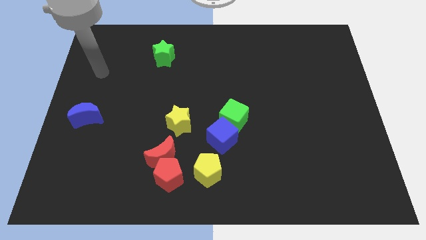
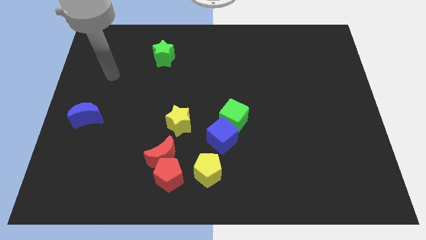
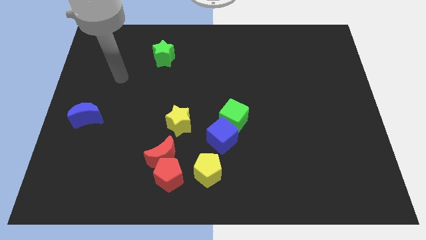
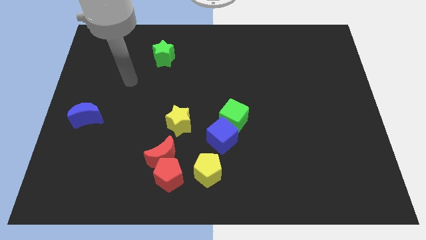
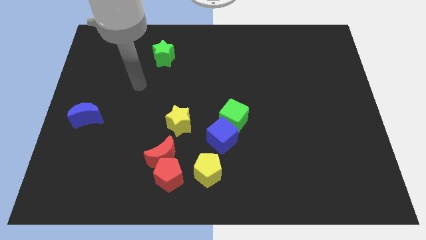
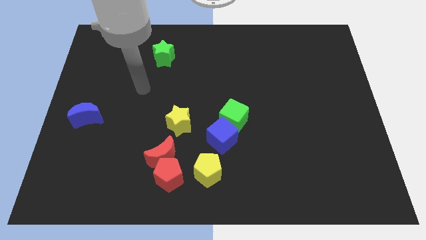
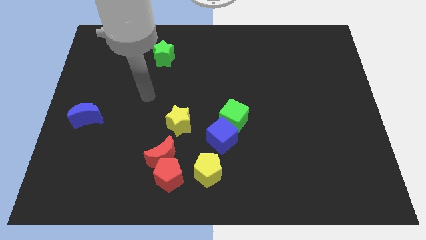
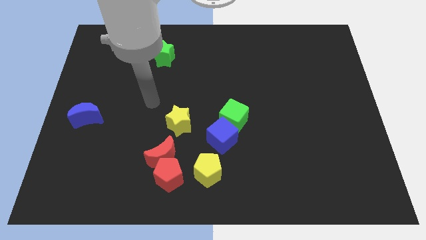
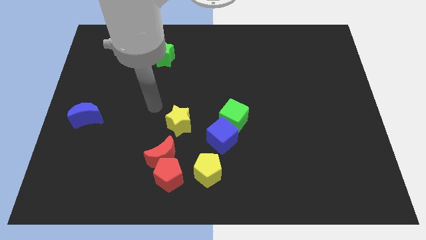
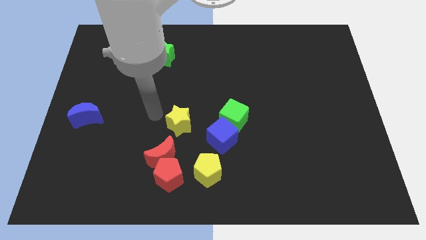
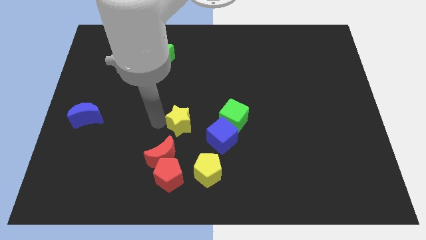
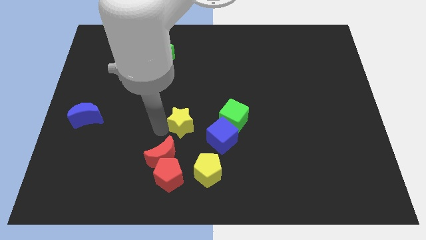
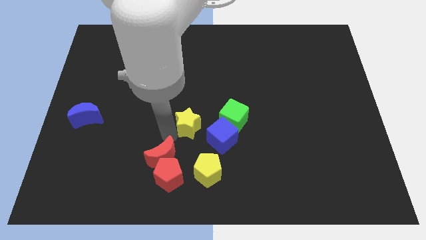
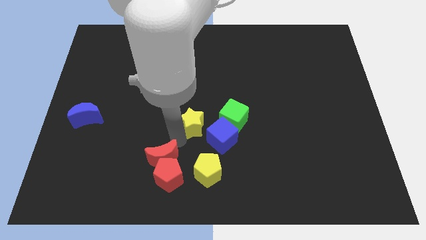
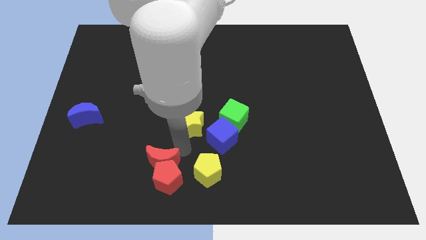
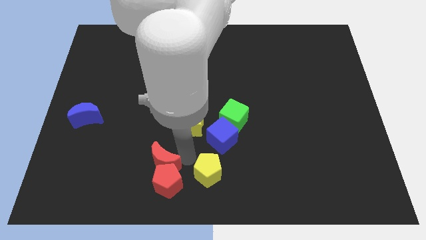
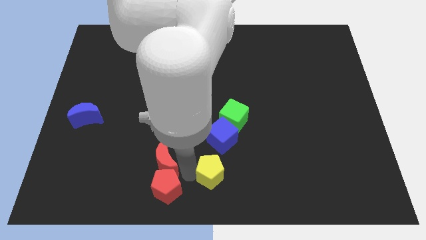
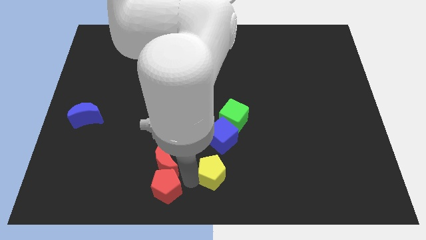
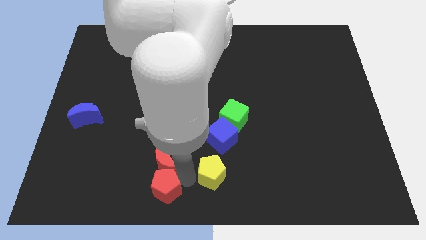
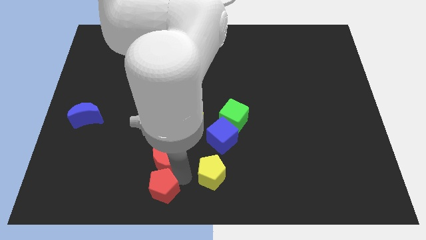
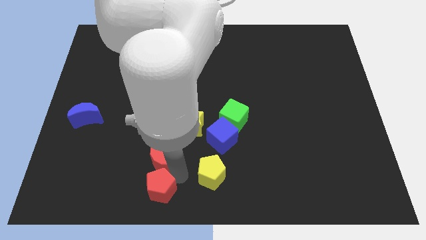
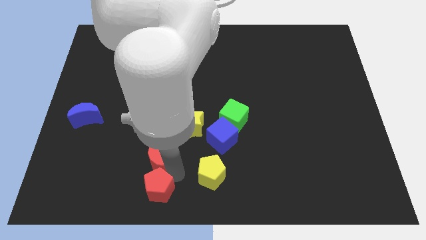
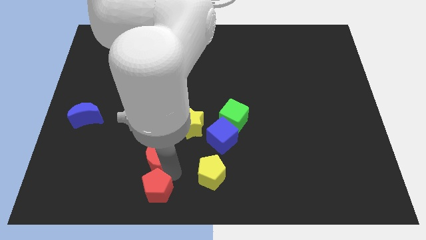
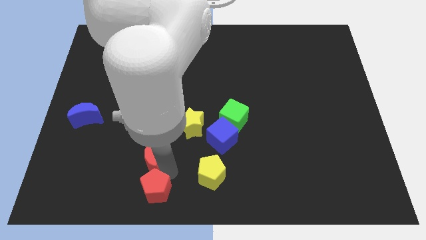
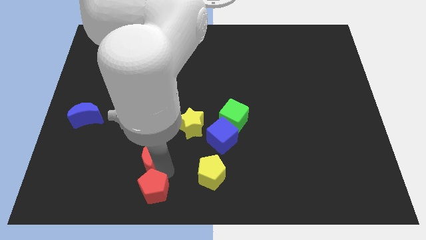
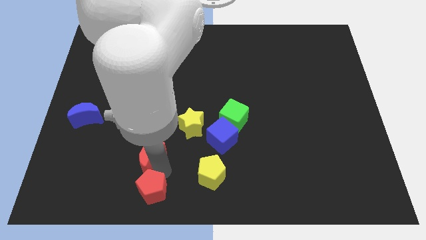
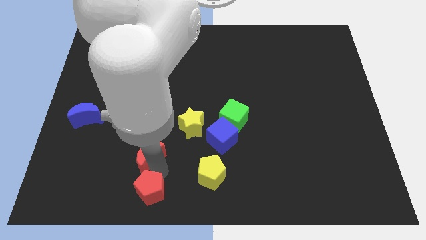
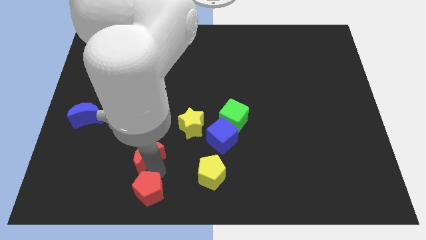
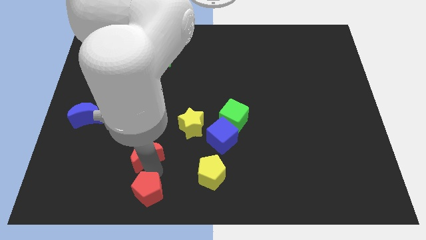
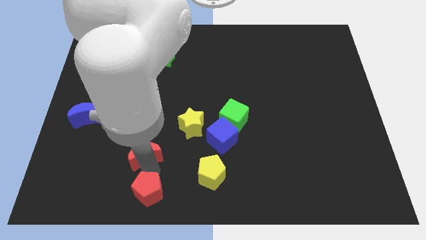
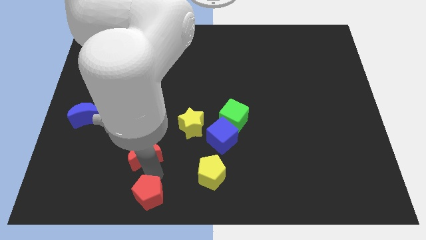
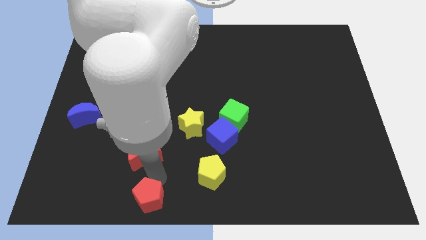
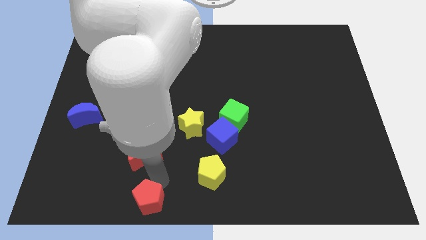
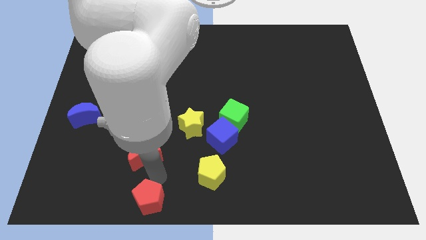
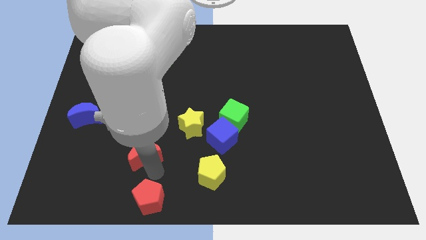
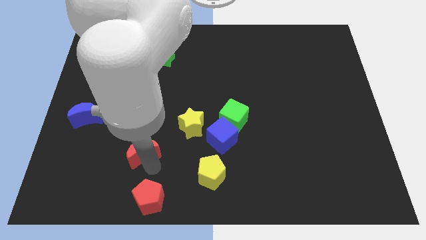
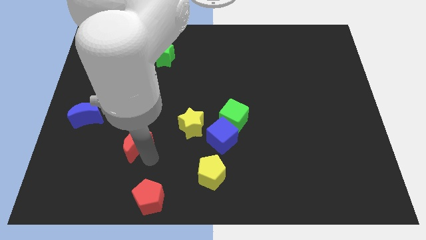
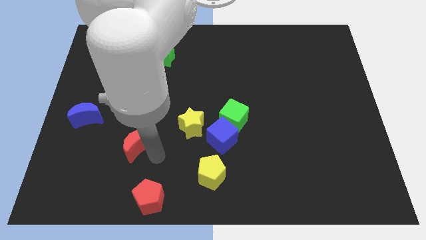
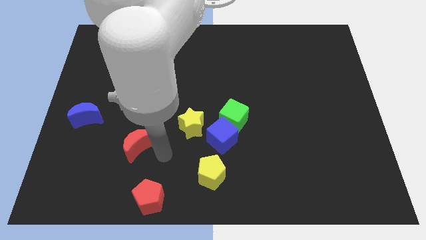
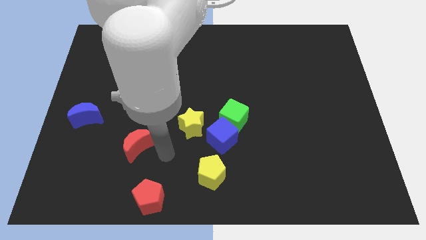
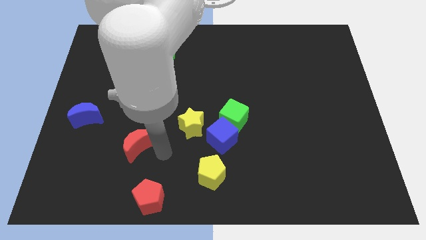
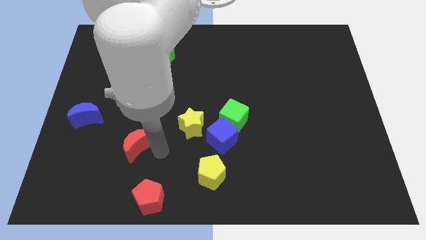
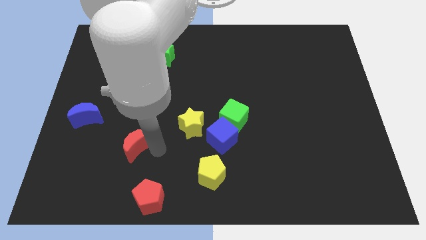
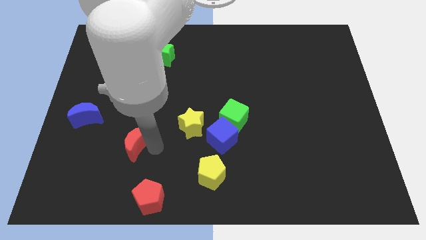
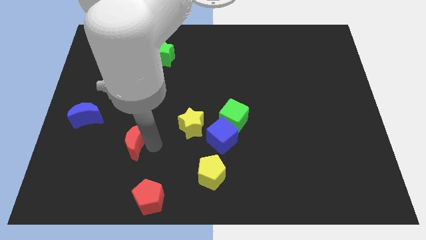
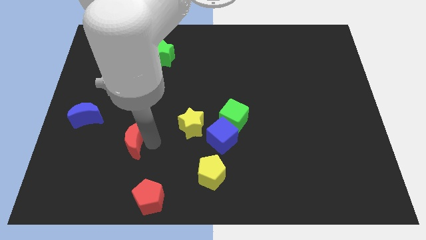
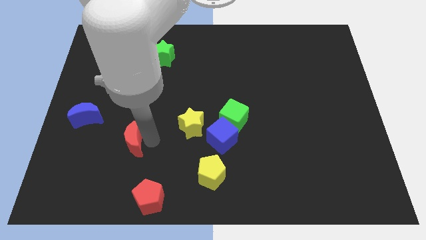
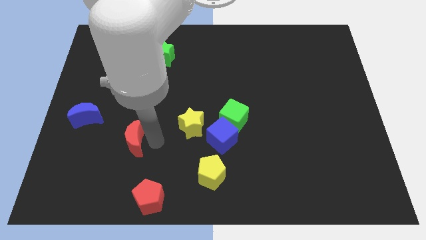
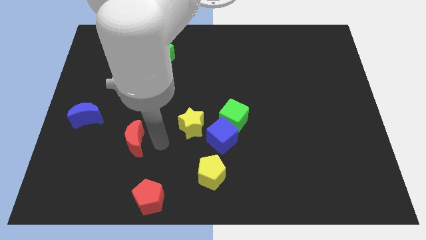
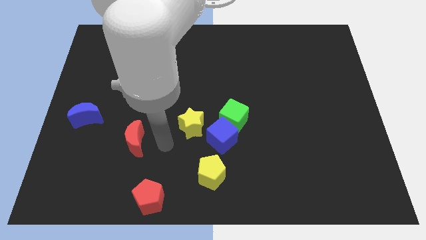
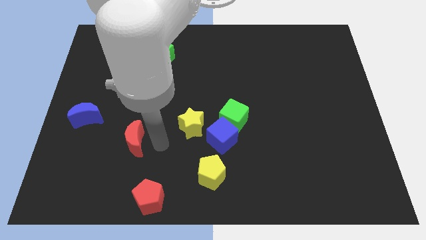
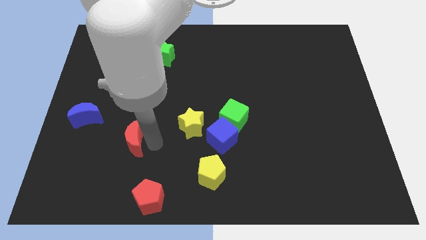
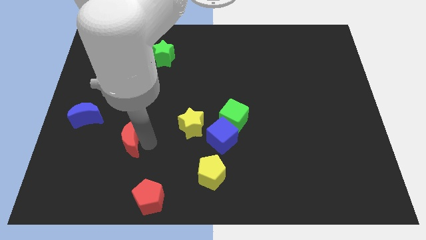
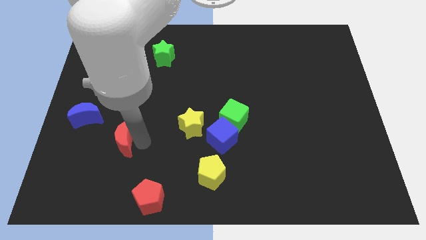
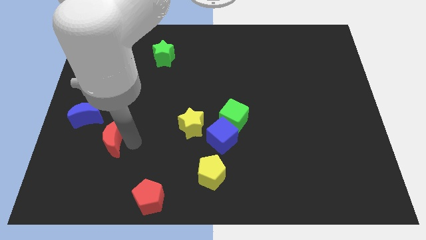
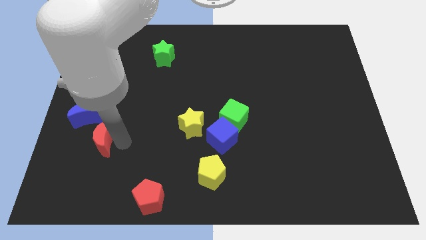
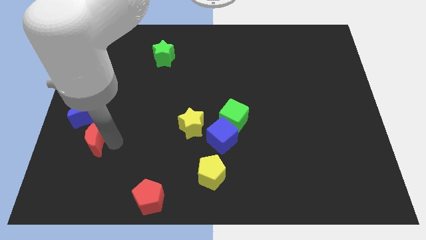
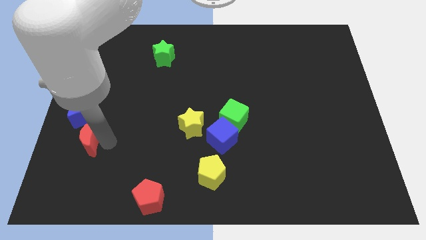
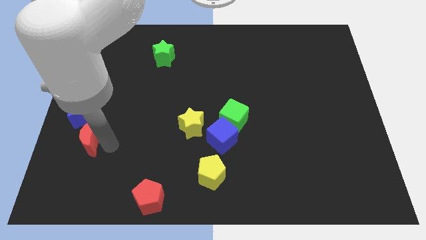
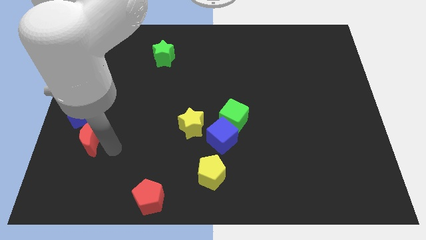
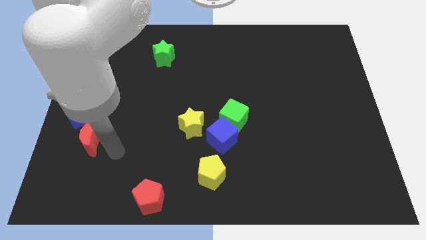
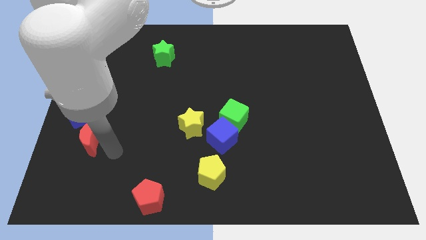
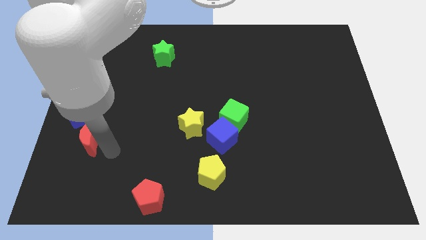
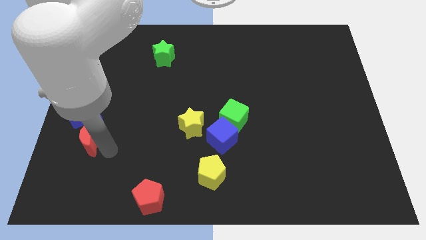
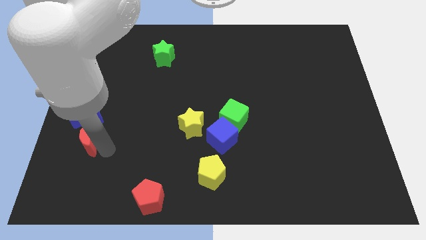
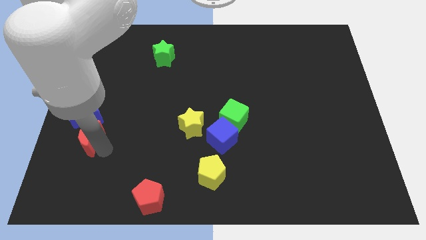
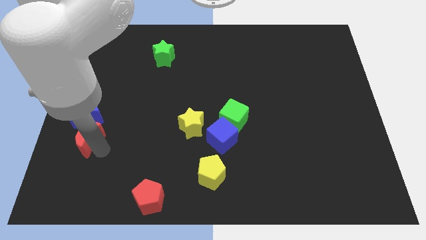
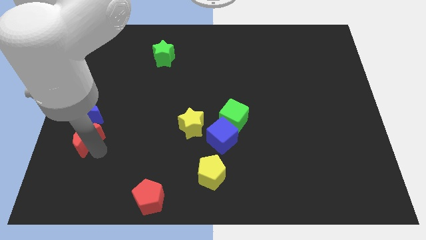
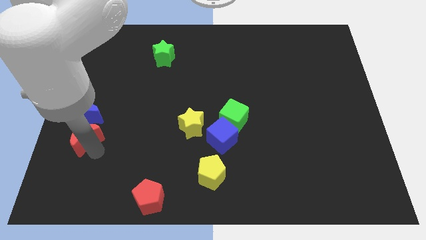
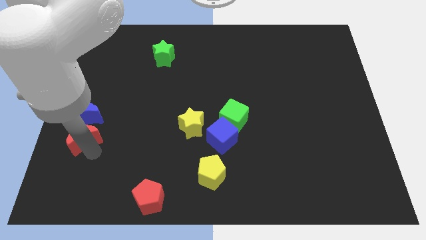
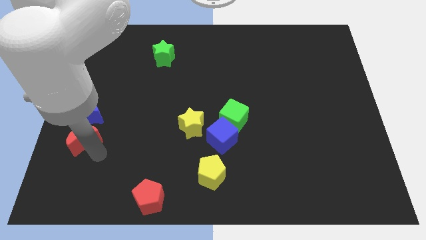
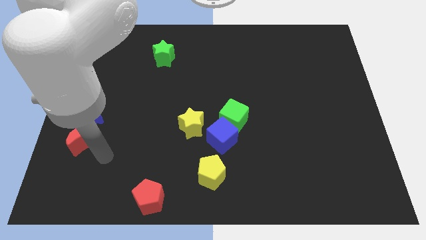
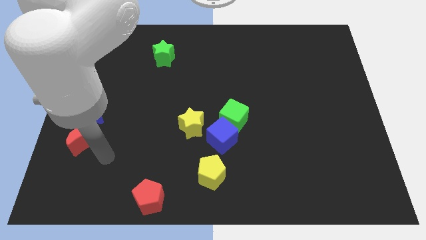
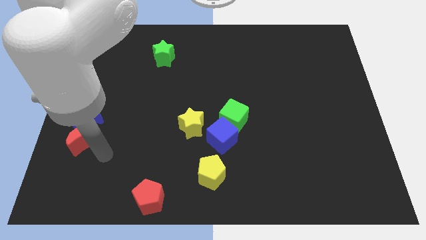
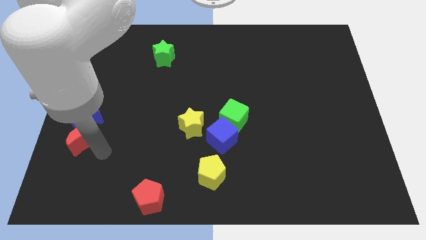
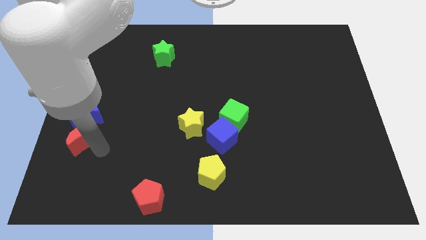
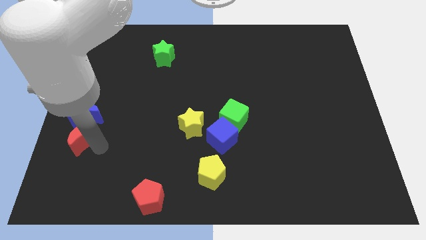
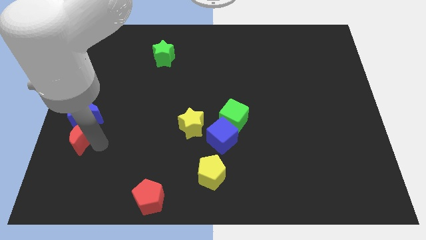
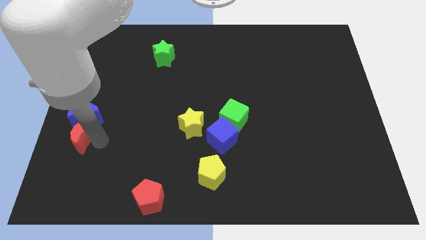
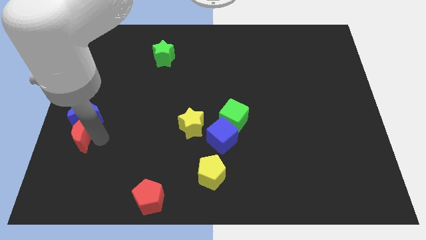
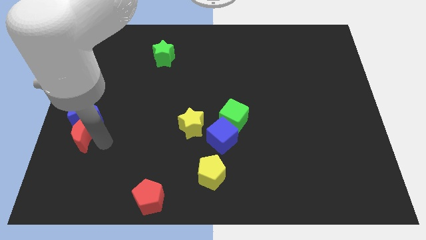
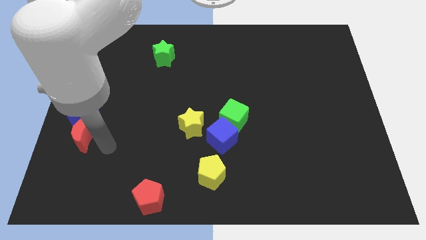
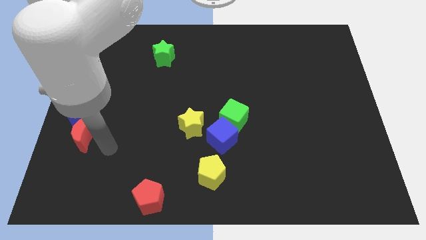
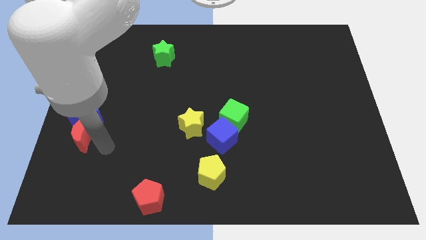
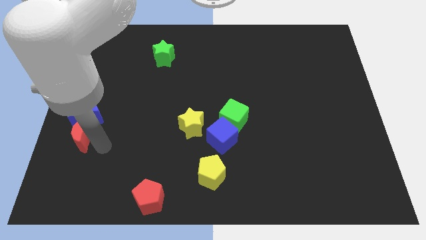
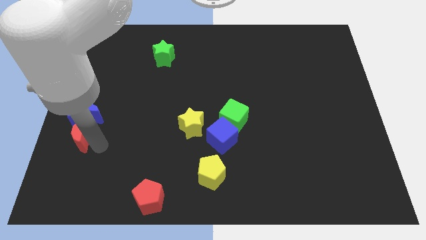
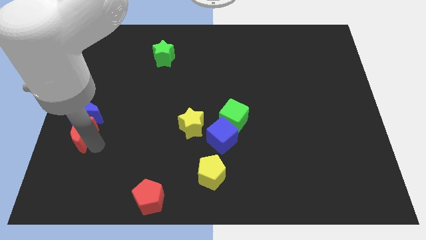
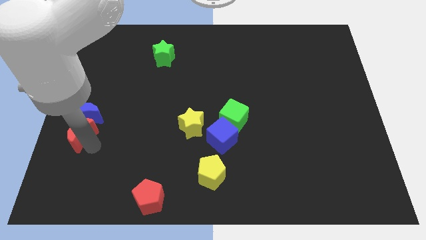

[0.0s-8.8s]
put the red moon to the left side of the board
